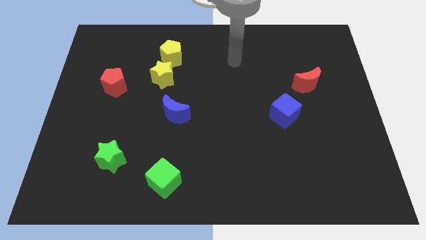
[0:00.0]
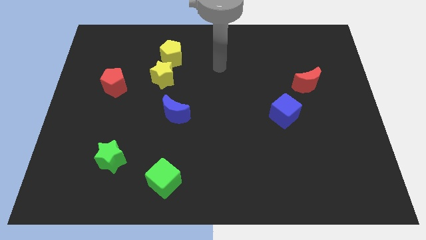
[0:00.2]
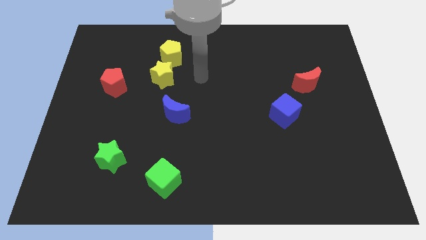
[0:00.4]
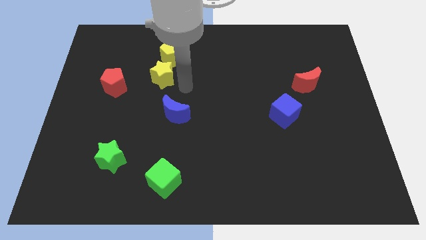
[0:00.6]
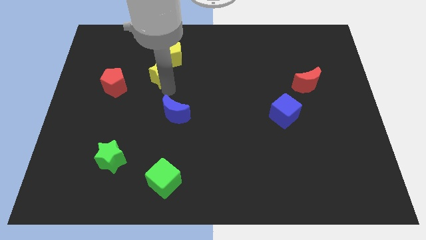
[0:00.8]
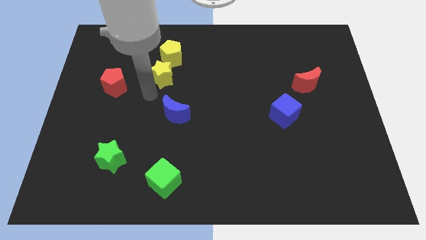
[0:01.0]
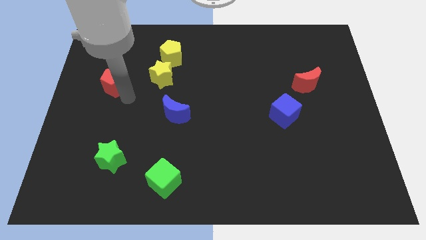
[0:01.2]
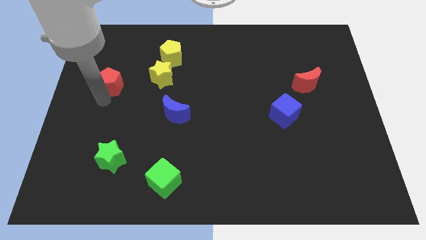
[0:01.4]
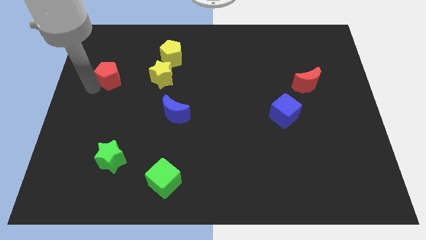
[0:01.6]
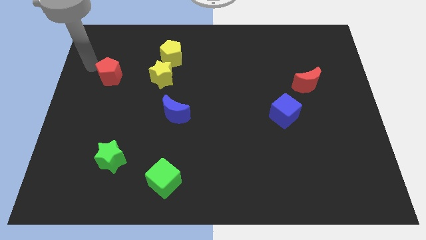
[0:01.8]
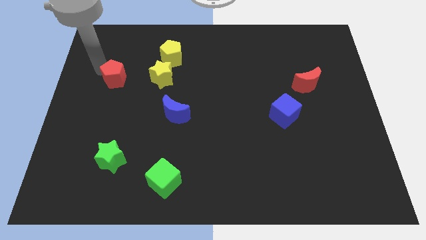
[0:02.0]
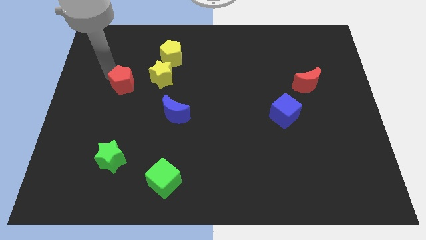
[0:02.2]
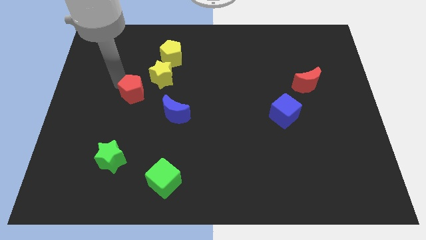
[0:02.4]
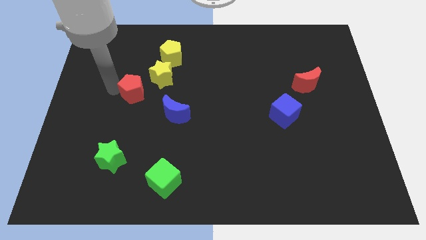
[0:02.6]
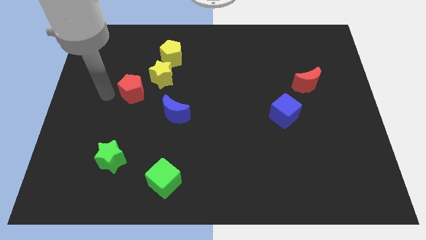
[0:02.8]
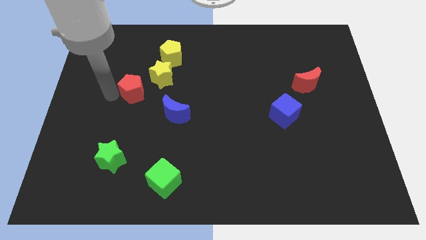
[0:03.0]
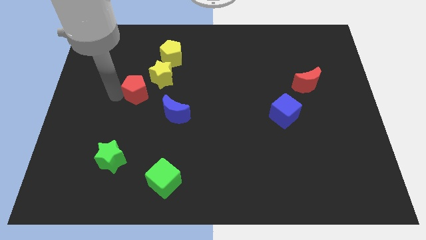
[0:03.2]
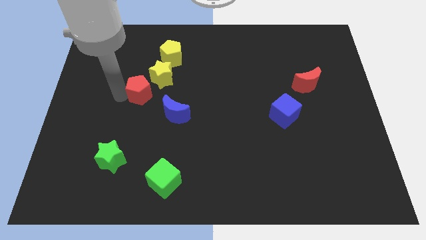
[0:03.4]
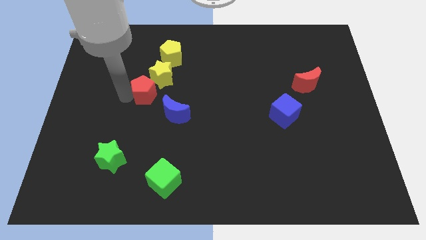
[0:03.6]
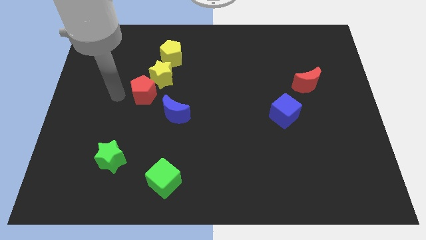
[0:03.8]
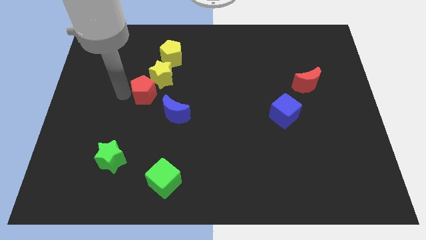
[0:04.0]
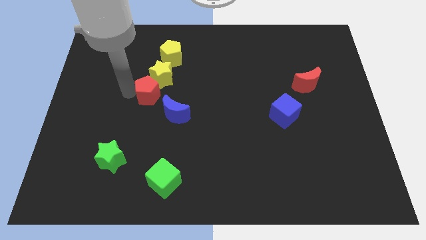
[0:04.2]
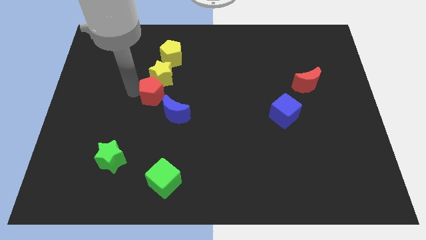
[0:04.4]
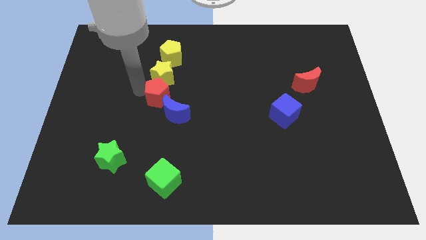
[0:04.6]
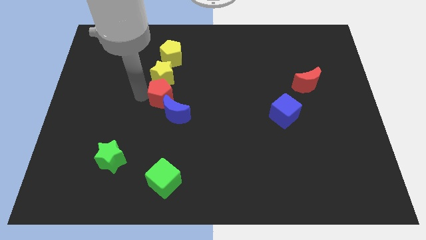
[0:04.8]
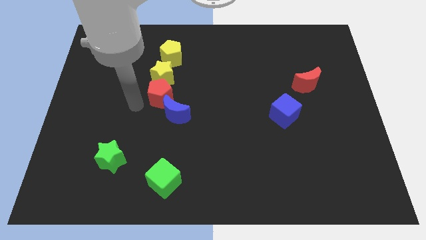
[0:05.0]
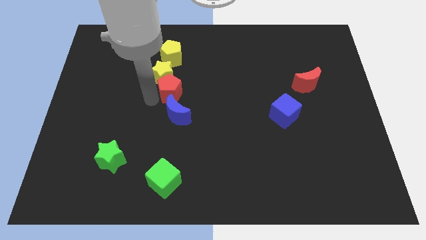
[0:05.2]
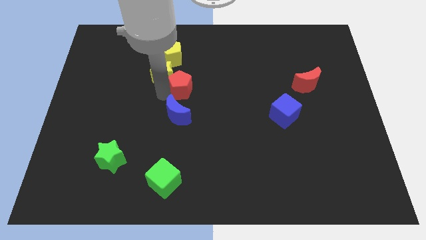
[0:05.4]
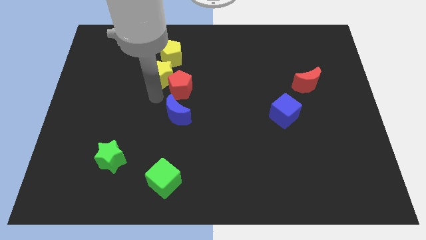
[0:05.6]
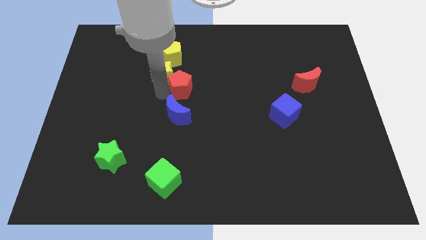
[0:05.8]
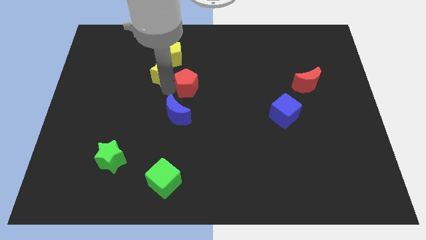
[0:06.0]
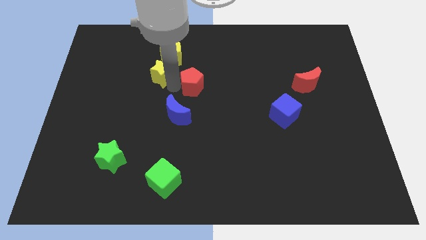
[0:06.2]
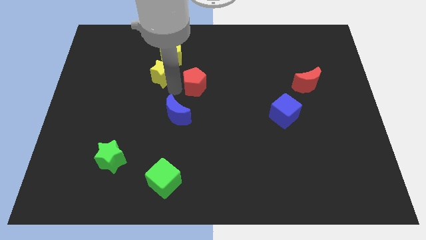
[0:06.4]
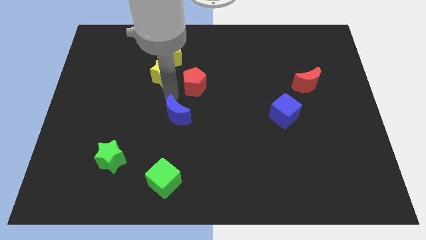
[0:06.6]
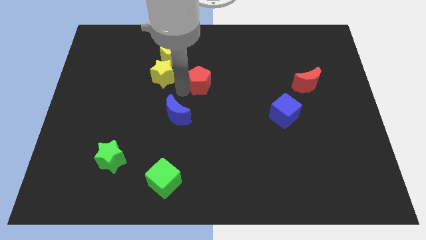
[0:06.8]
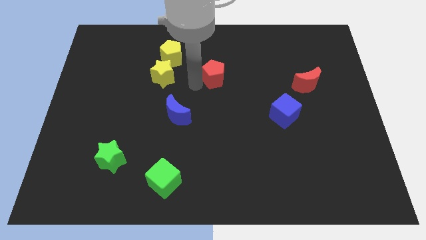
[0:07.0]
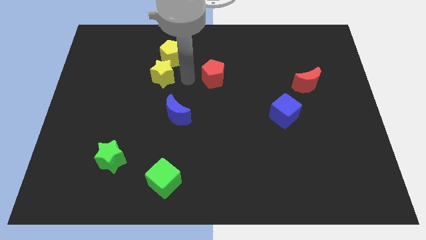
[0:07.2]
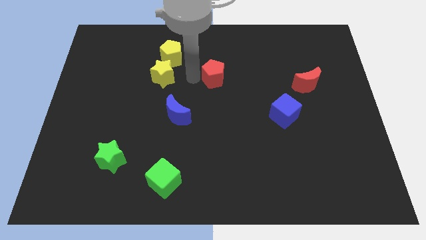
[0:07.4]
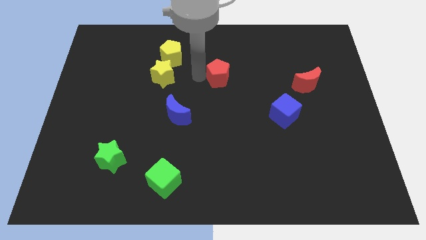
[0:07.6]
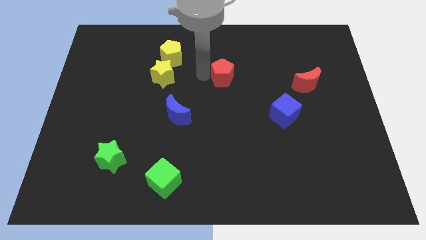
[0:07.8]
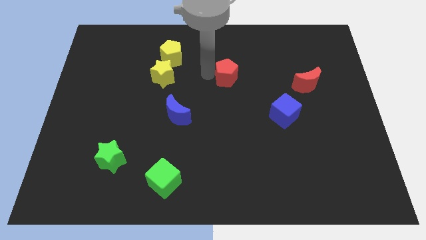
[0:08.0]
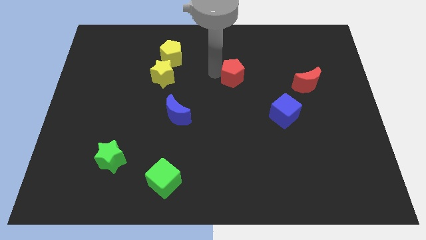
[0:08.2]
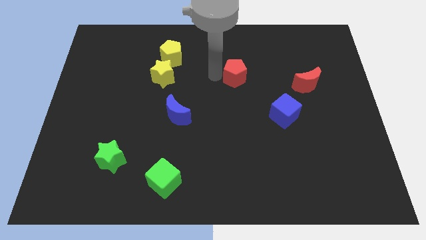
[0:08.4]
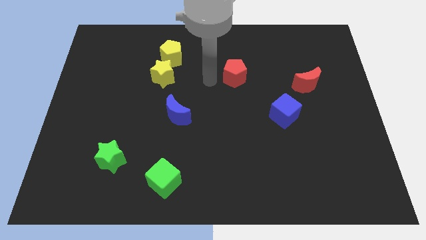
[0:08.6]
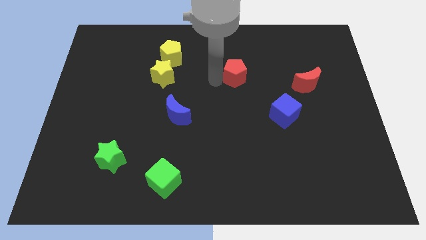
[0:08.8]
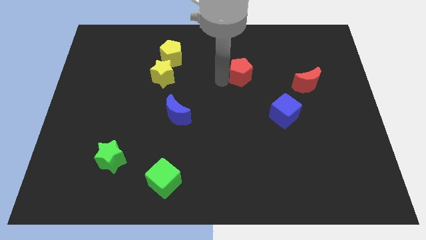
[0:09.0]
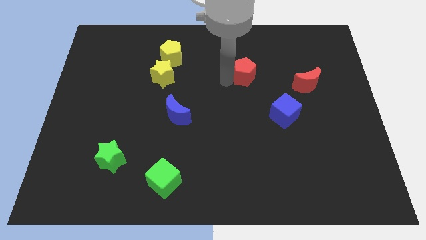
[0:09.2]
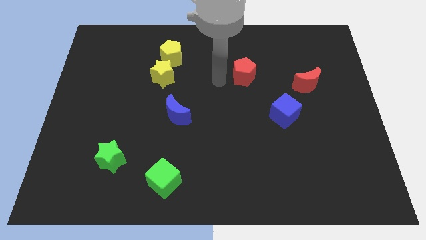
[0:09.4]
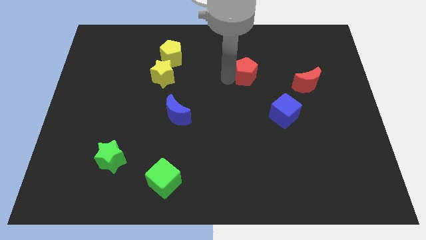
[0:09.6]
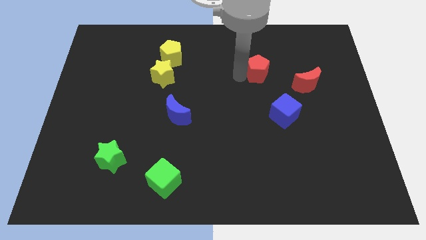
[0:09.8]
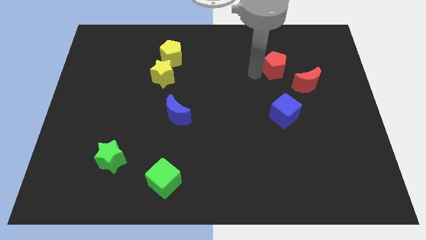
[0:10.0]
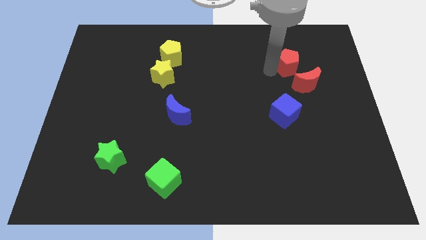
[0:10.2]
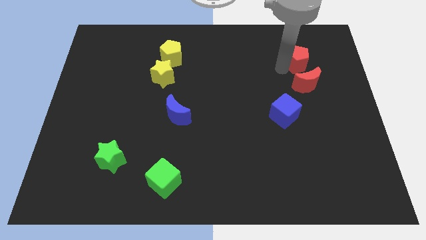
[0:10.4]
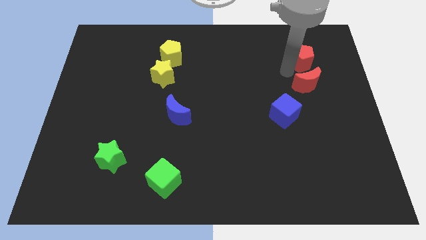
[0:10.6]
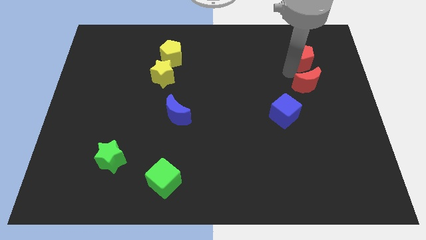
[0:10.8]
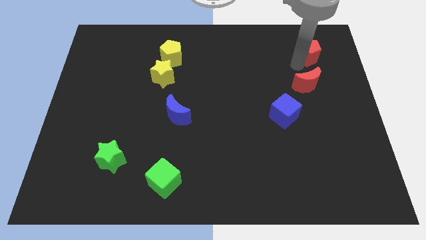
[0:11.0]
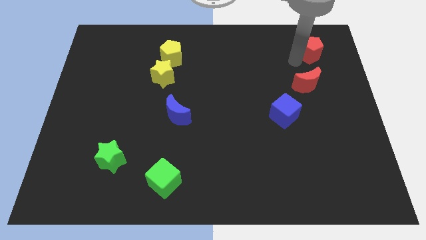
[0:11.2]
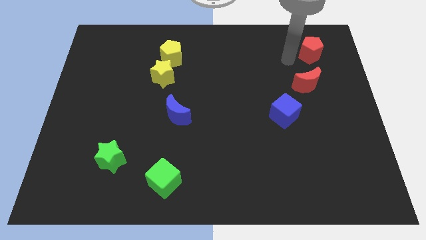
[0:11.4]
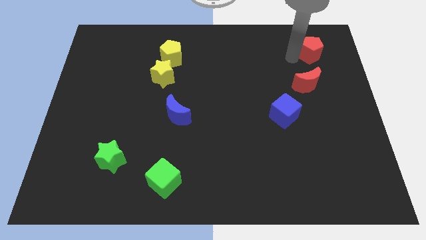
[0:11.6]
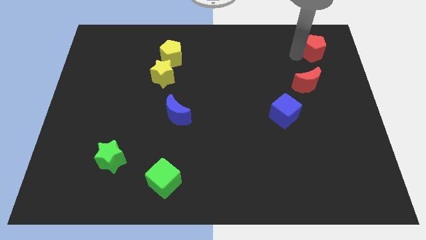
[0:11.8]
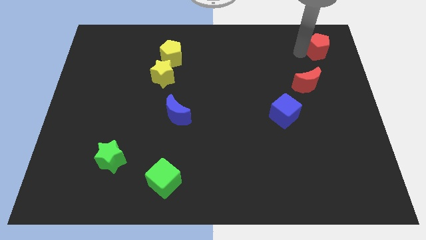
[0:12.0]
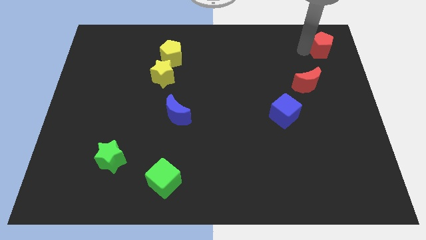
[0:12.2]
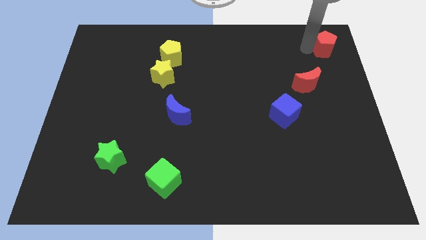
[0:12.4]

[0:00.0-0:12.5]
move the red pentagon to the top right of the board

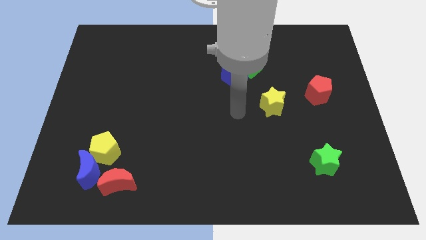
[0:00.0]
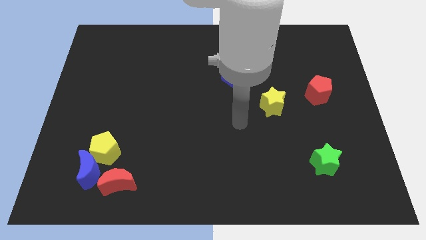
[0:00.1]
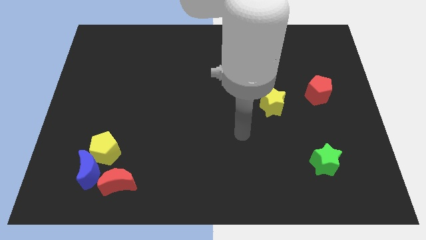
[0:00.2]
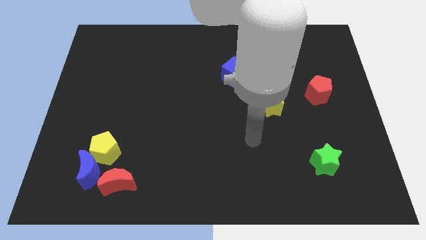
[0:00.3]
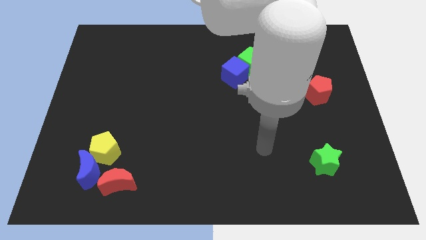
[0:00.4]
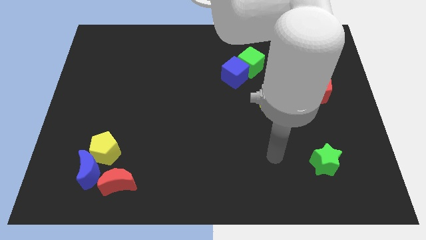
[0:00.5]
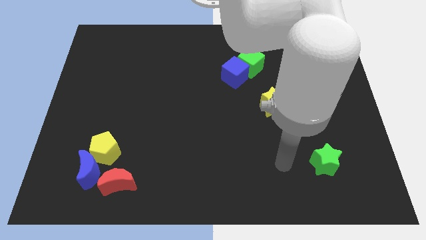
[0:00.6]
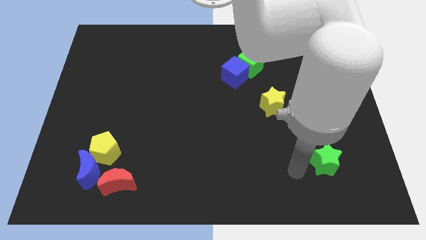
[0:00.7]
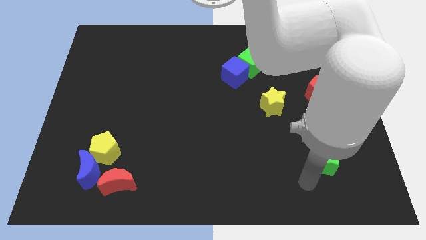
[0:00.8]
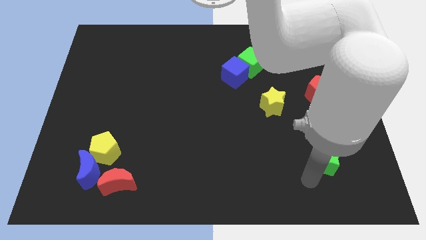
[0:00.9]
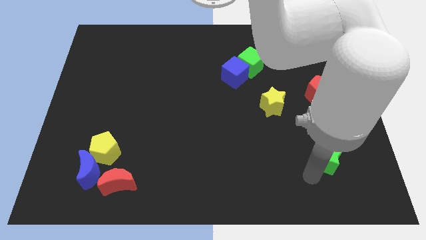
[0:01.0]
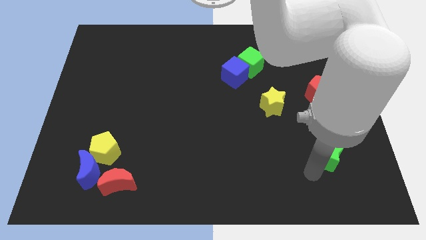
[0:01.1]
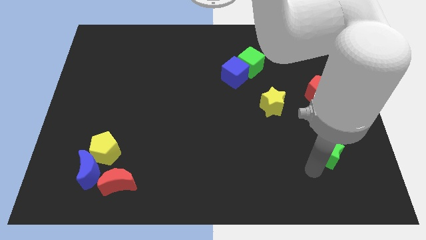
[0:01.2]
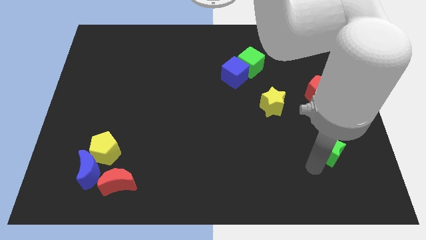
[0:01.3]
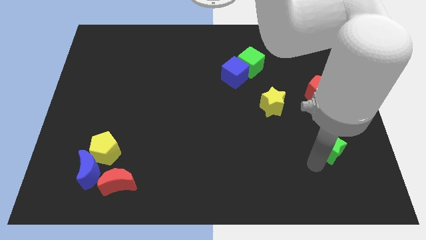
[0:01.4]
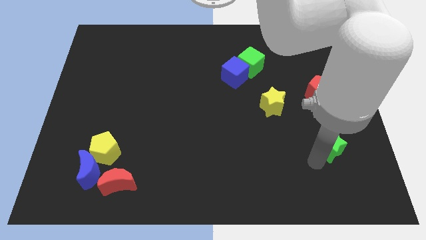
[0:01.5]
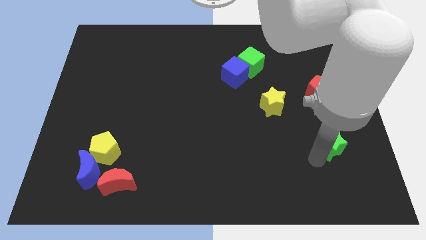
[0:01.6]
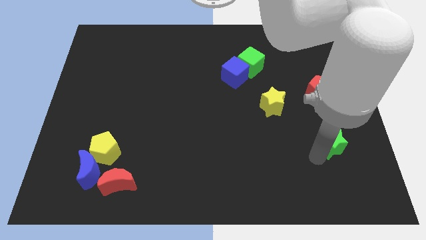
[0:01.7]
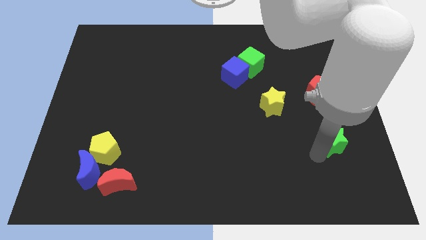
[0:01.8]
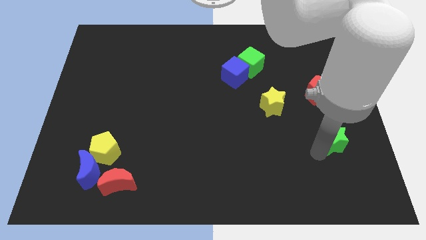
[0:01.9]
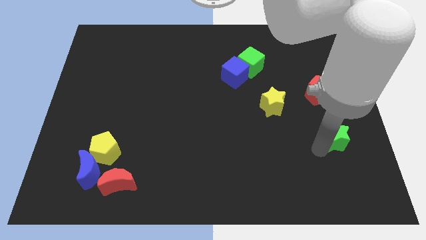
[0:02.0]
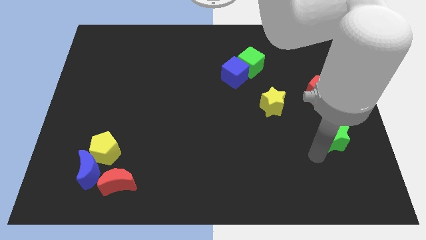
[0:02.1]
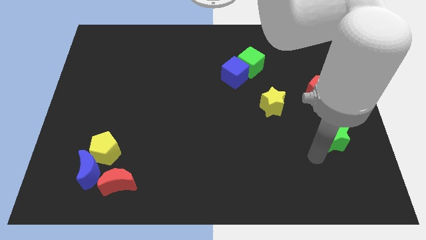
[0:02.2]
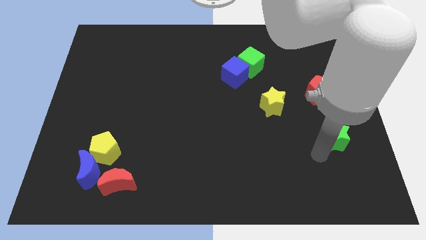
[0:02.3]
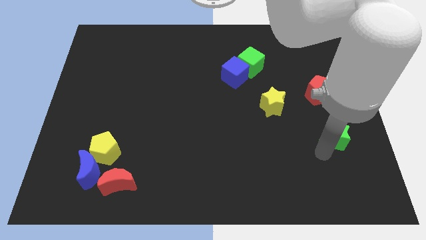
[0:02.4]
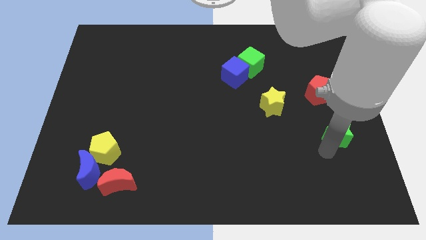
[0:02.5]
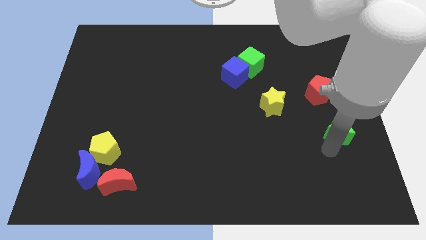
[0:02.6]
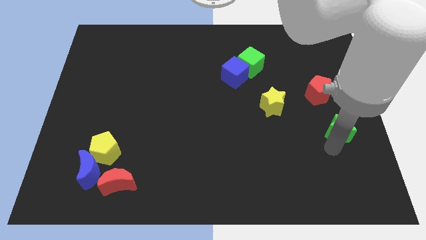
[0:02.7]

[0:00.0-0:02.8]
slide the green star to the right side
